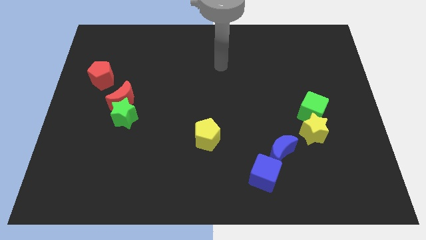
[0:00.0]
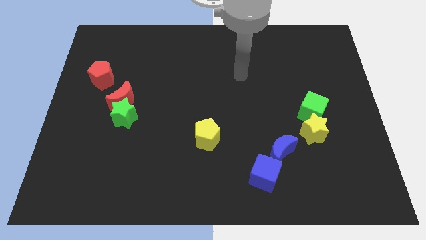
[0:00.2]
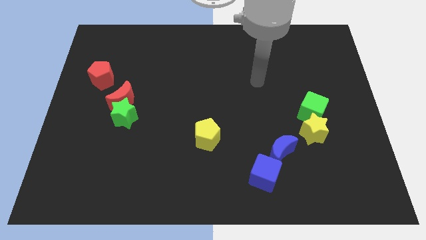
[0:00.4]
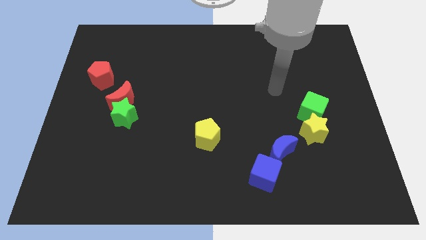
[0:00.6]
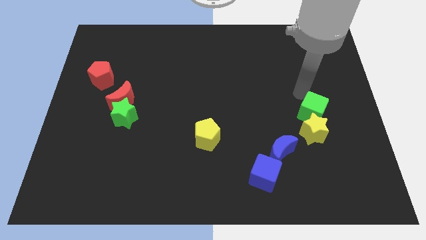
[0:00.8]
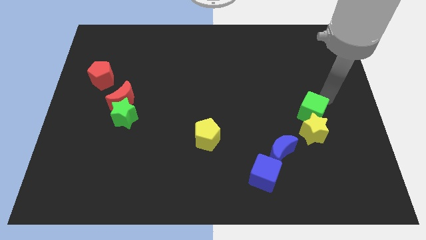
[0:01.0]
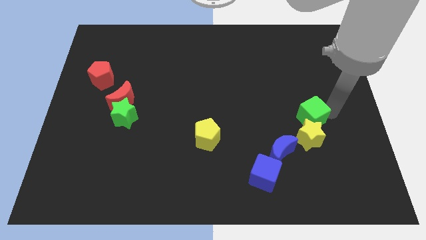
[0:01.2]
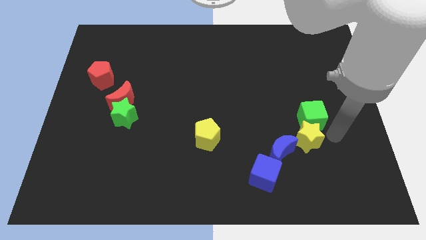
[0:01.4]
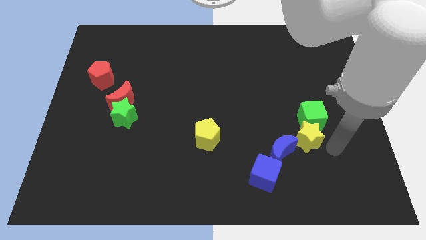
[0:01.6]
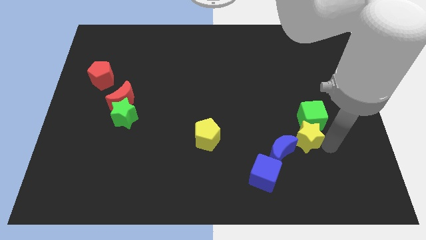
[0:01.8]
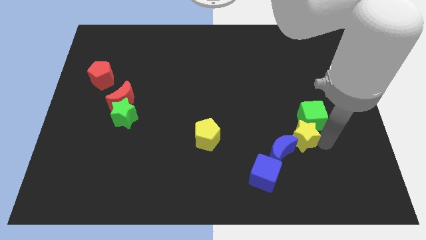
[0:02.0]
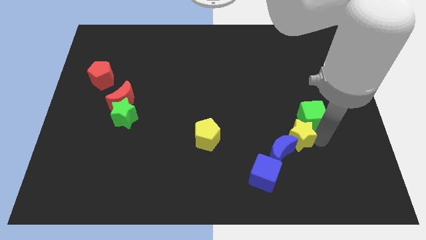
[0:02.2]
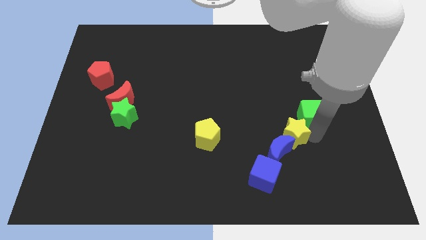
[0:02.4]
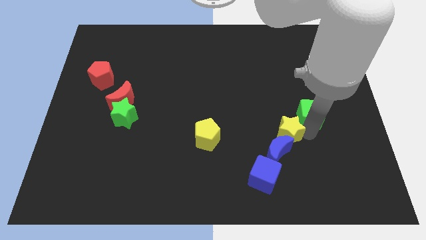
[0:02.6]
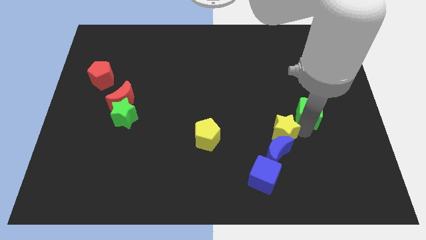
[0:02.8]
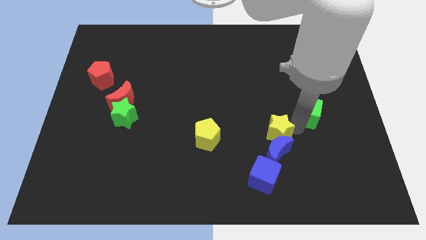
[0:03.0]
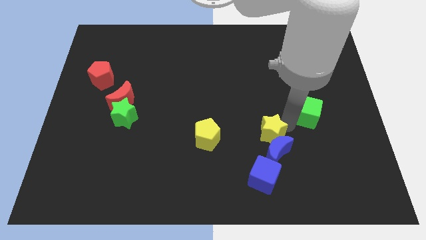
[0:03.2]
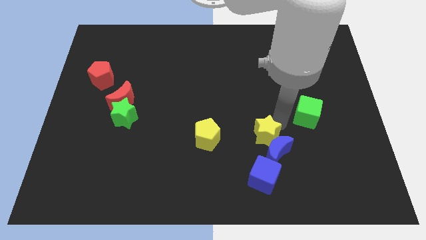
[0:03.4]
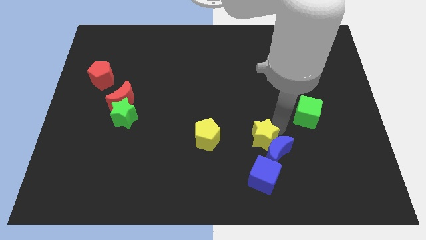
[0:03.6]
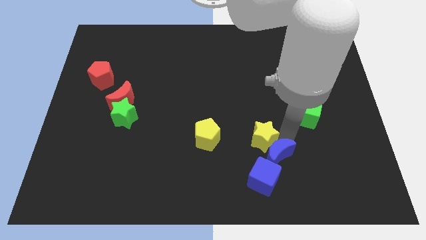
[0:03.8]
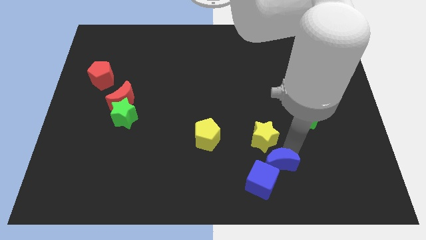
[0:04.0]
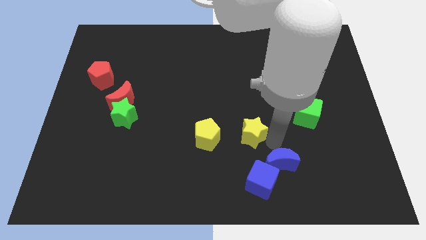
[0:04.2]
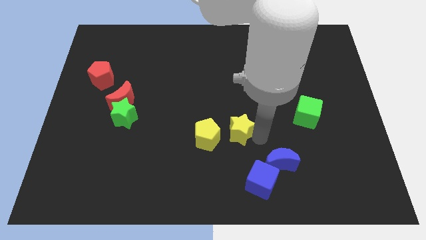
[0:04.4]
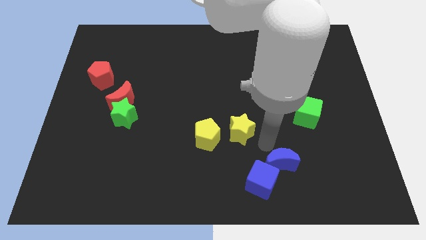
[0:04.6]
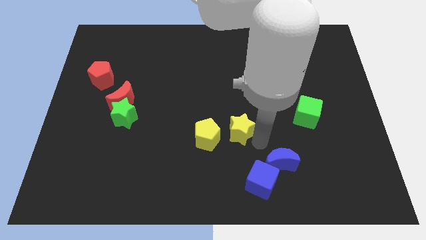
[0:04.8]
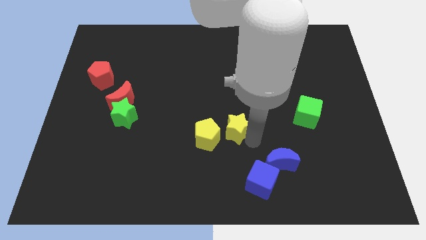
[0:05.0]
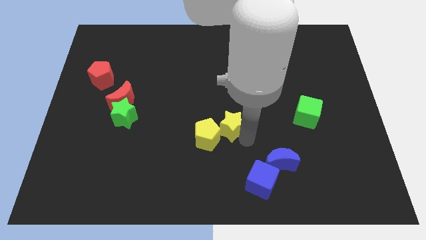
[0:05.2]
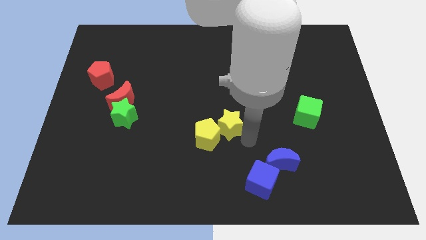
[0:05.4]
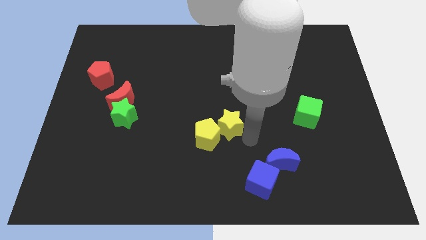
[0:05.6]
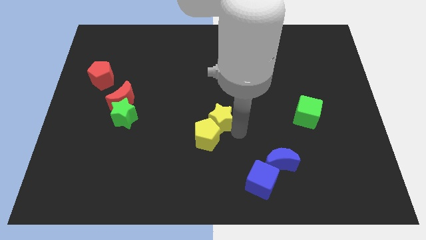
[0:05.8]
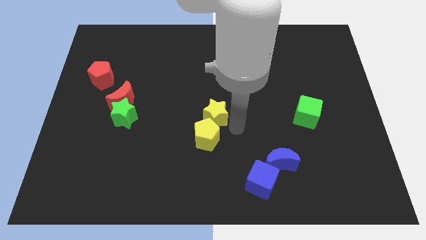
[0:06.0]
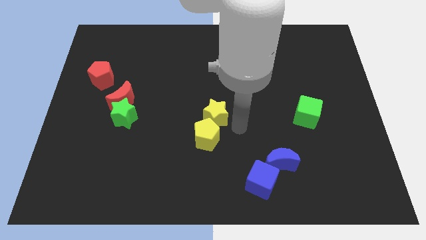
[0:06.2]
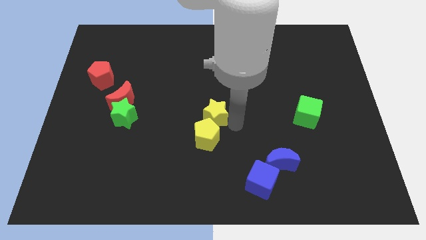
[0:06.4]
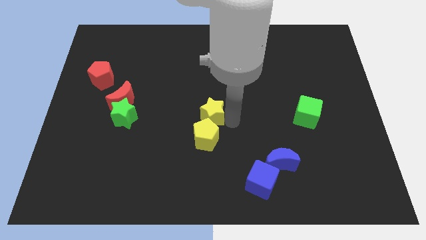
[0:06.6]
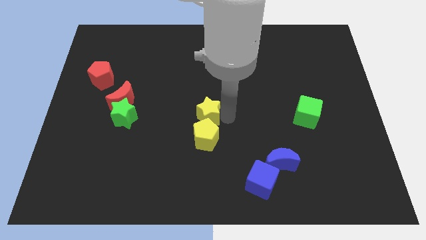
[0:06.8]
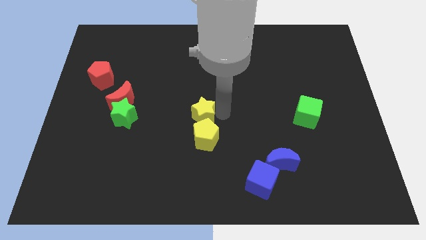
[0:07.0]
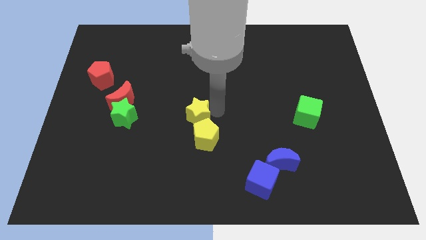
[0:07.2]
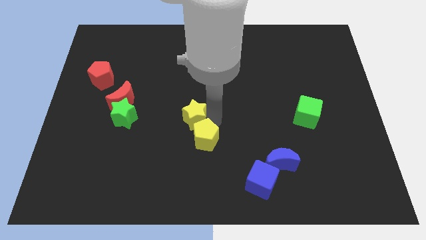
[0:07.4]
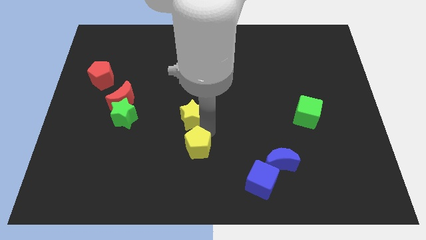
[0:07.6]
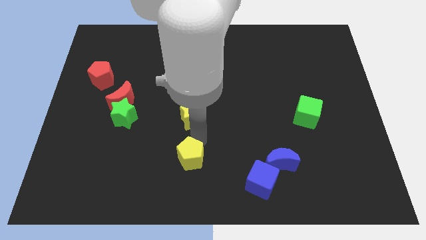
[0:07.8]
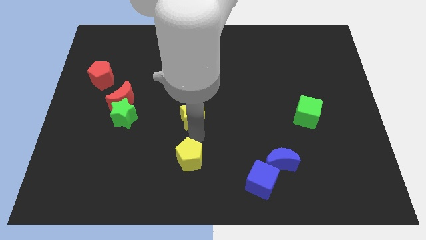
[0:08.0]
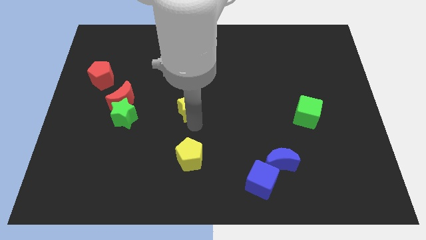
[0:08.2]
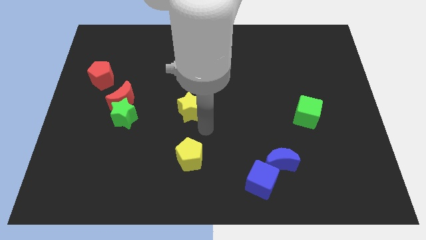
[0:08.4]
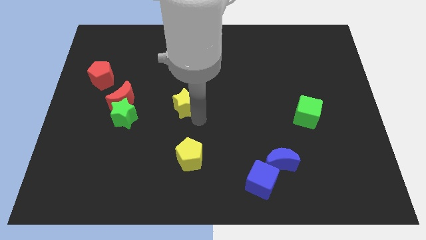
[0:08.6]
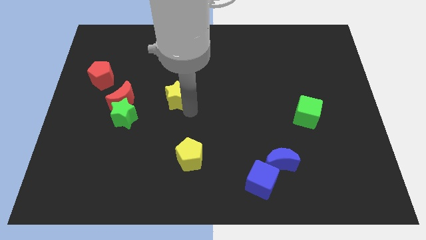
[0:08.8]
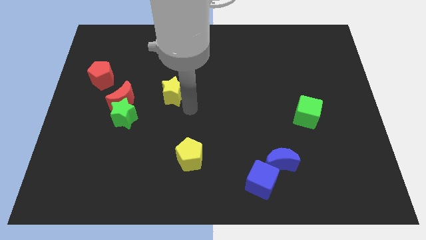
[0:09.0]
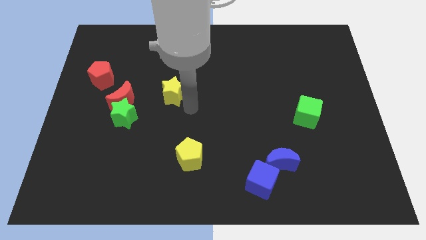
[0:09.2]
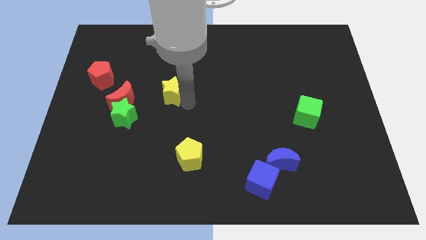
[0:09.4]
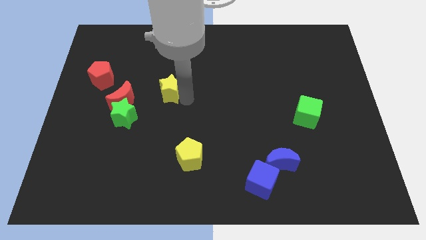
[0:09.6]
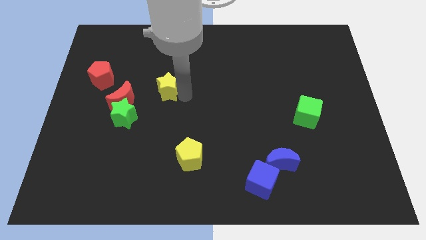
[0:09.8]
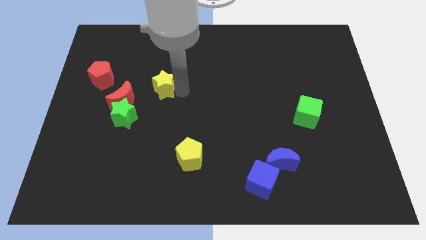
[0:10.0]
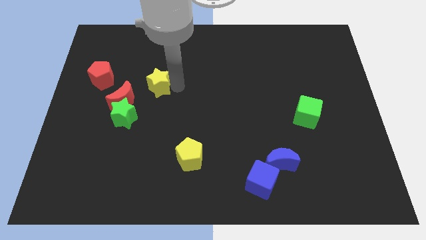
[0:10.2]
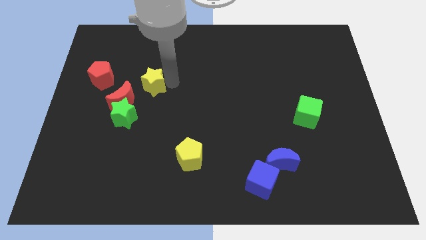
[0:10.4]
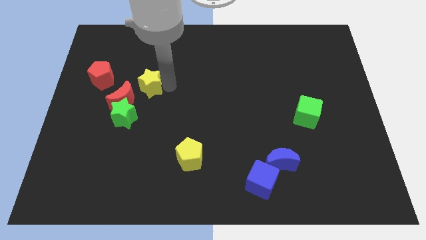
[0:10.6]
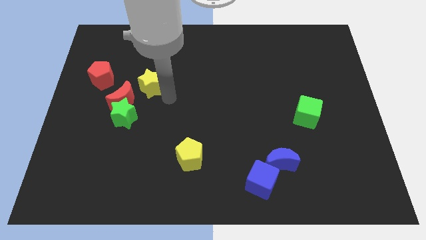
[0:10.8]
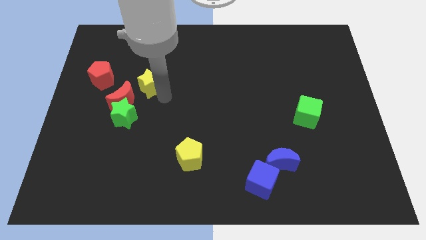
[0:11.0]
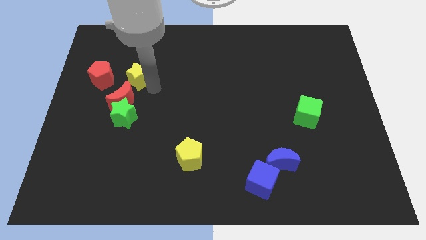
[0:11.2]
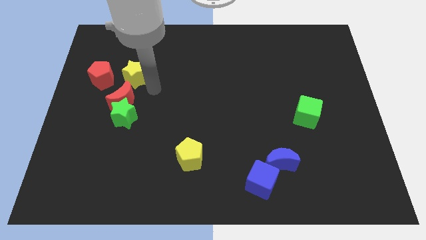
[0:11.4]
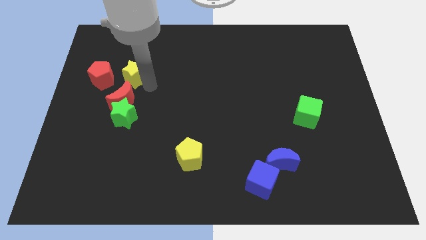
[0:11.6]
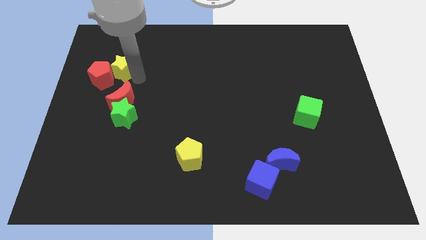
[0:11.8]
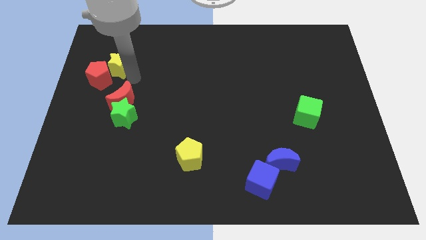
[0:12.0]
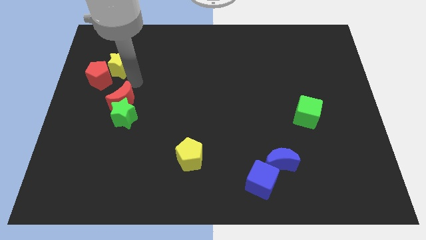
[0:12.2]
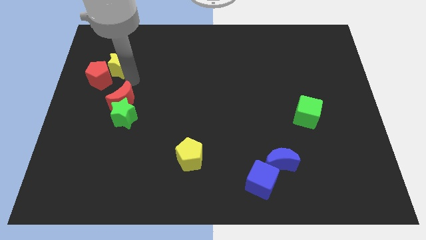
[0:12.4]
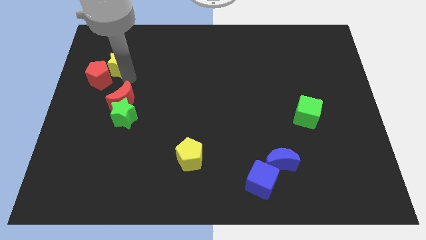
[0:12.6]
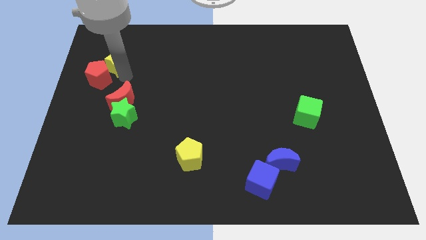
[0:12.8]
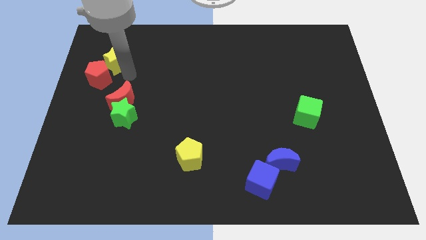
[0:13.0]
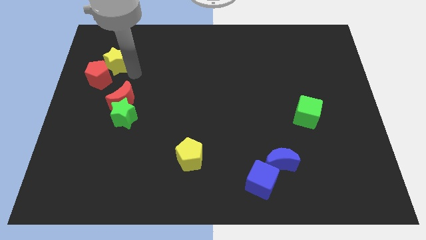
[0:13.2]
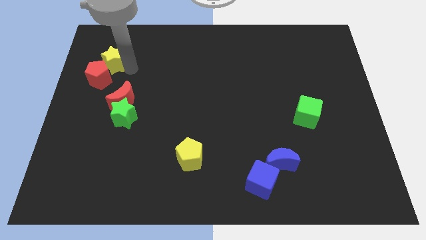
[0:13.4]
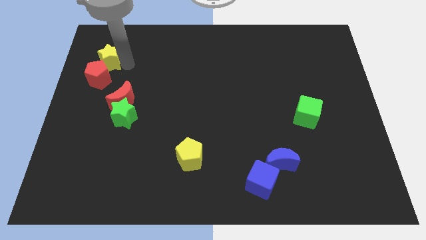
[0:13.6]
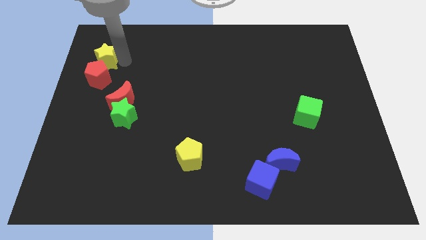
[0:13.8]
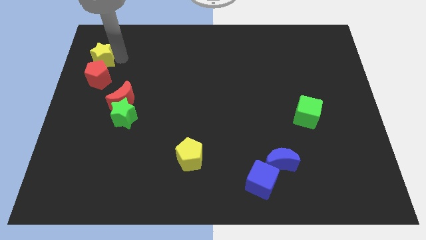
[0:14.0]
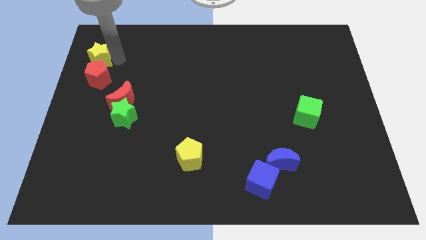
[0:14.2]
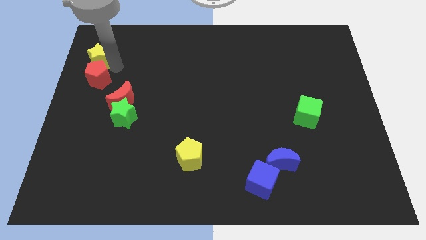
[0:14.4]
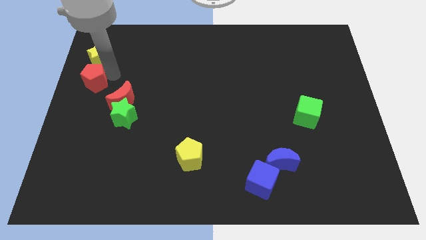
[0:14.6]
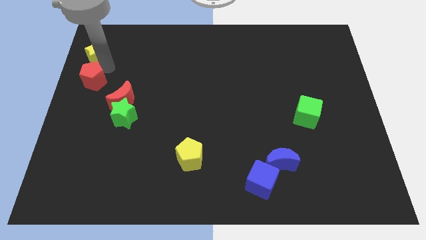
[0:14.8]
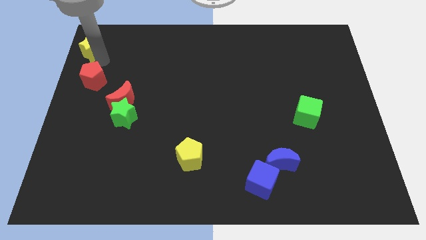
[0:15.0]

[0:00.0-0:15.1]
move the yellow star to the top left of the board
